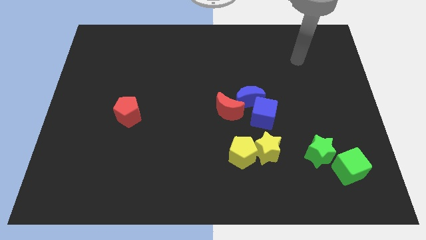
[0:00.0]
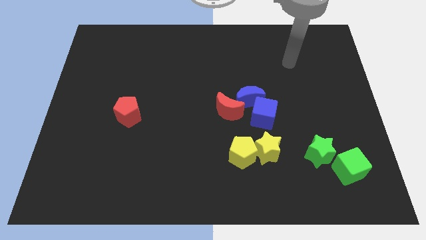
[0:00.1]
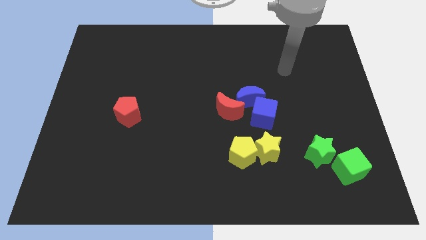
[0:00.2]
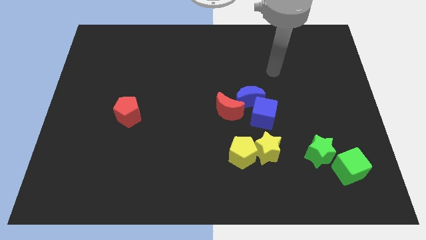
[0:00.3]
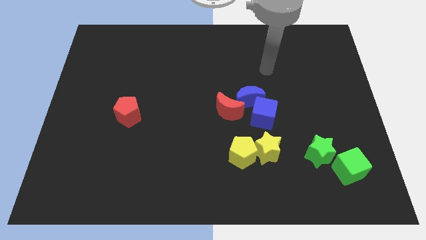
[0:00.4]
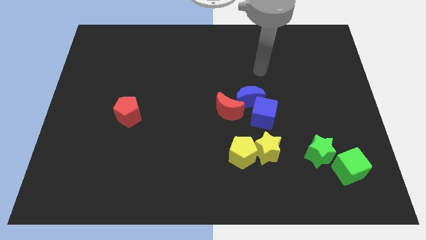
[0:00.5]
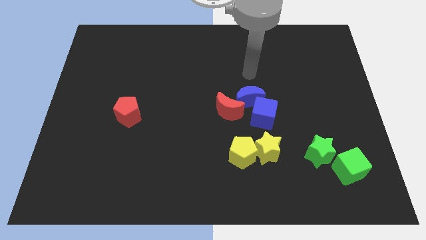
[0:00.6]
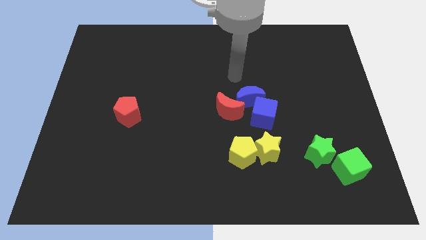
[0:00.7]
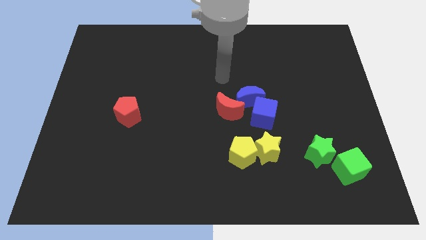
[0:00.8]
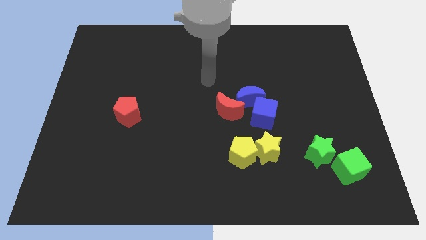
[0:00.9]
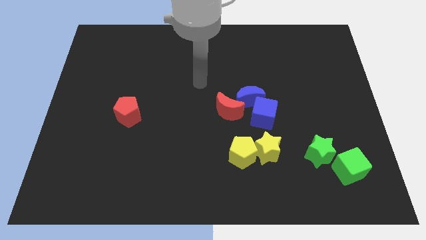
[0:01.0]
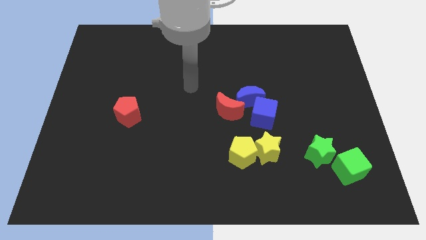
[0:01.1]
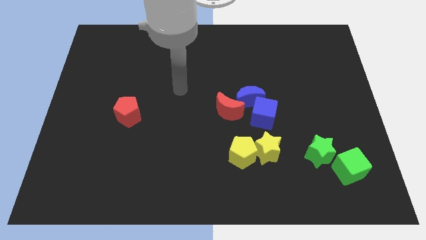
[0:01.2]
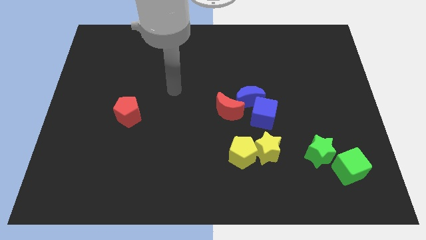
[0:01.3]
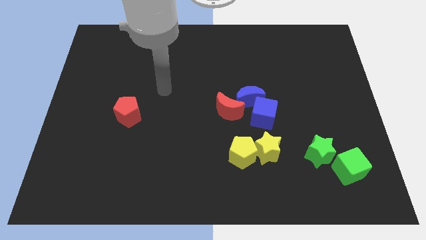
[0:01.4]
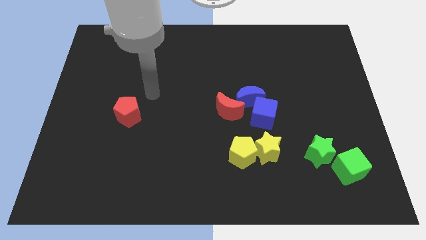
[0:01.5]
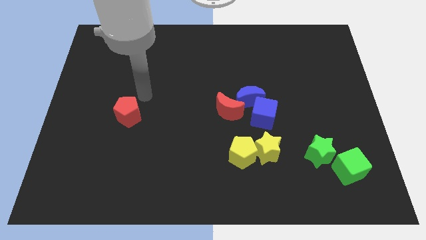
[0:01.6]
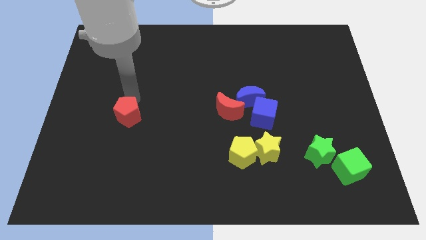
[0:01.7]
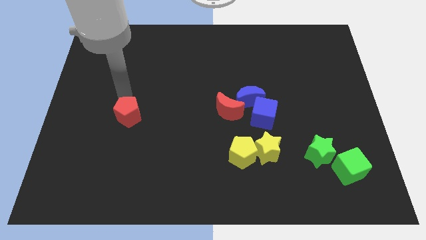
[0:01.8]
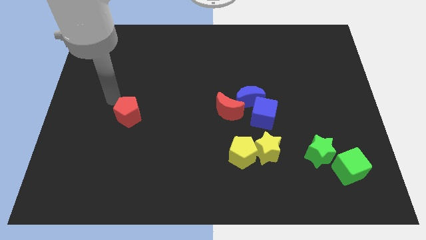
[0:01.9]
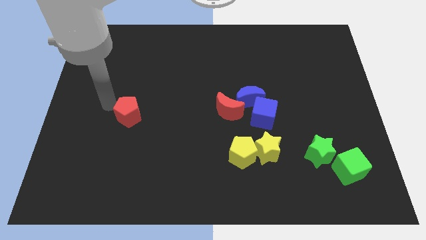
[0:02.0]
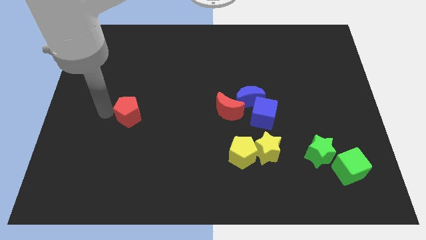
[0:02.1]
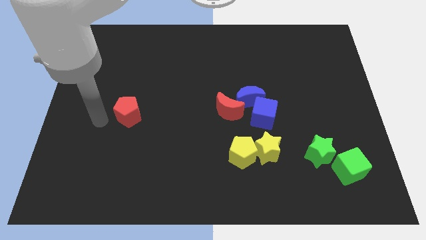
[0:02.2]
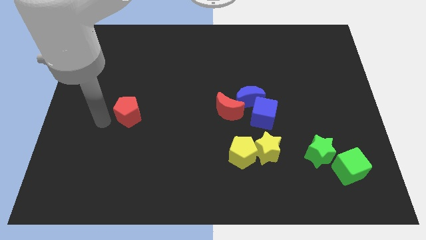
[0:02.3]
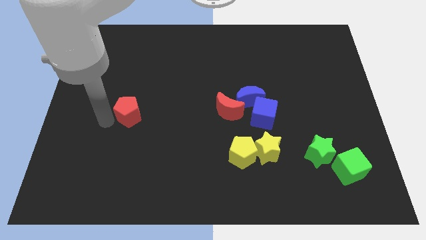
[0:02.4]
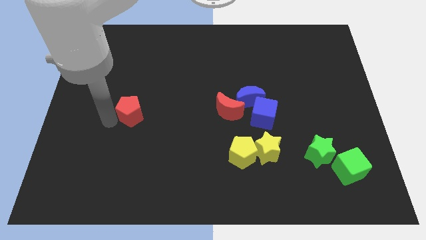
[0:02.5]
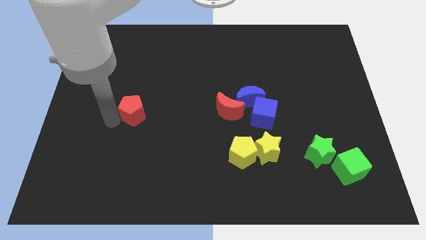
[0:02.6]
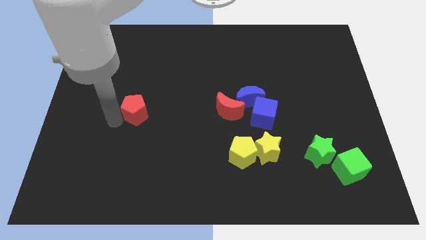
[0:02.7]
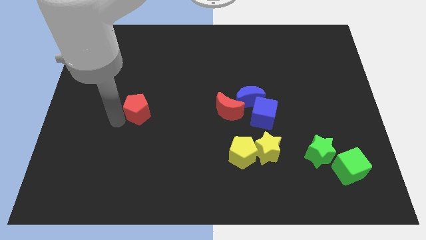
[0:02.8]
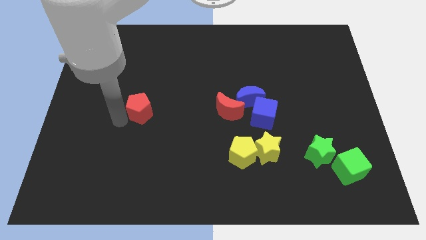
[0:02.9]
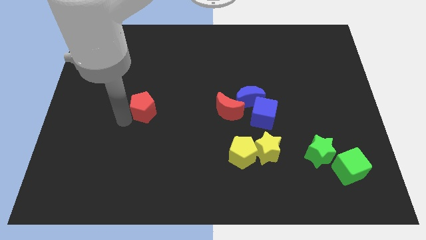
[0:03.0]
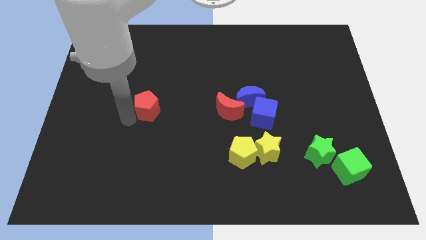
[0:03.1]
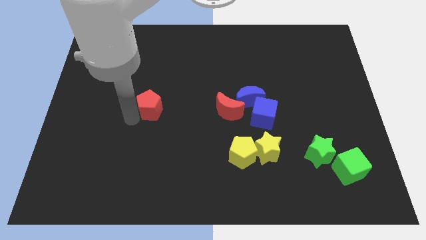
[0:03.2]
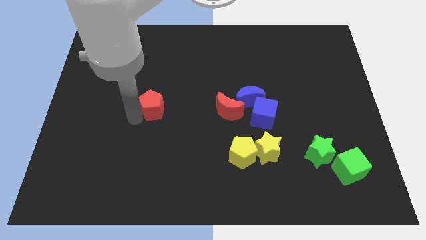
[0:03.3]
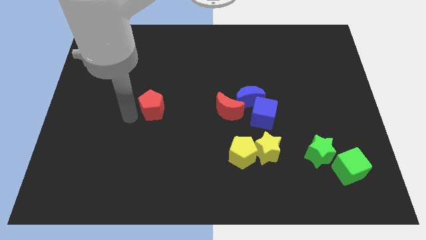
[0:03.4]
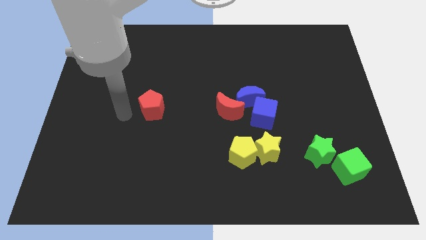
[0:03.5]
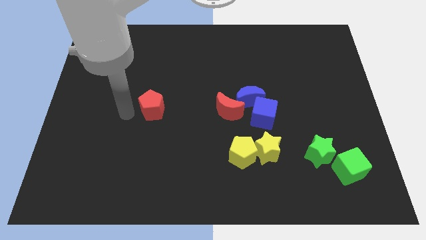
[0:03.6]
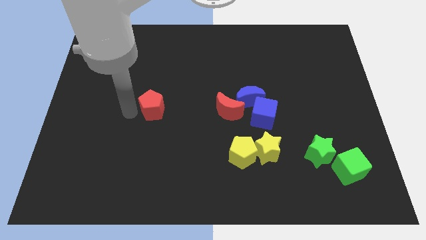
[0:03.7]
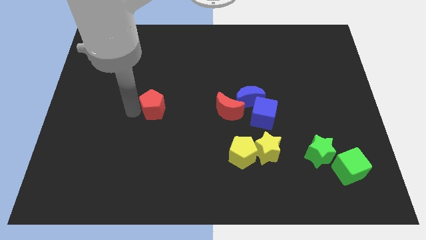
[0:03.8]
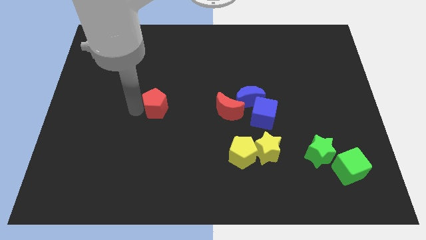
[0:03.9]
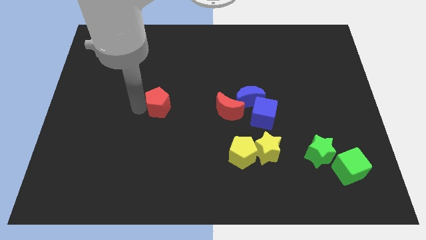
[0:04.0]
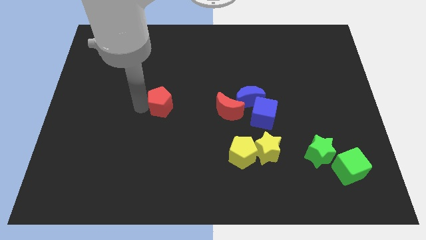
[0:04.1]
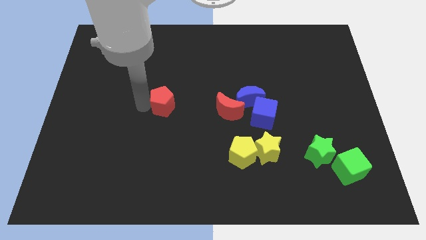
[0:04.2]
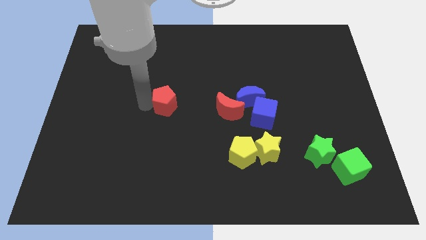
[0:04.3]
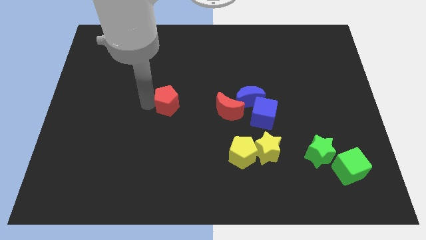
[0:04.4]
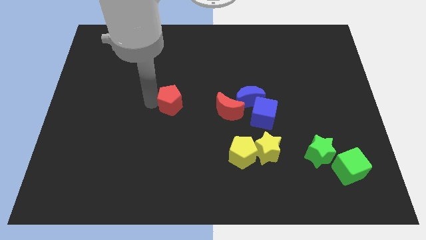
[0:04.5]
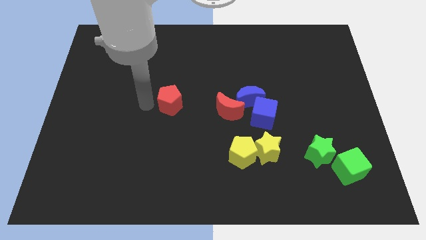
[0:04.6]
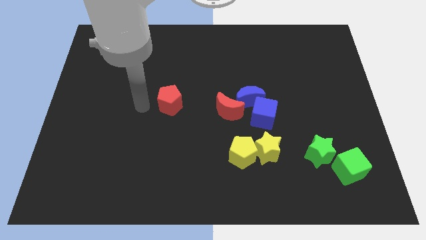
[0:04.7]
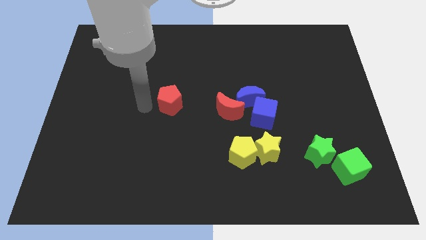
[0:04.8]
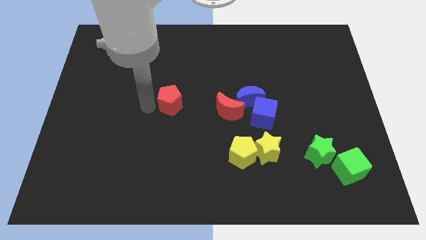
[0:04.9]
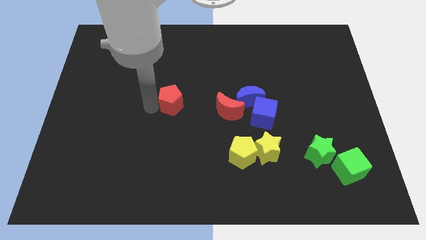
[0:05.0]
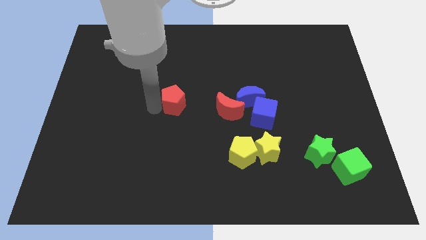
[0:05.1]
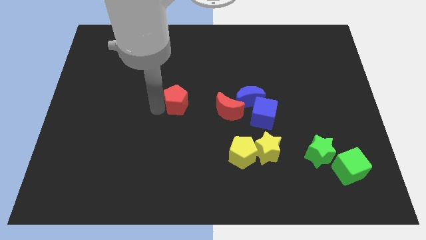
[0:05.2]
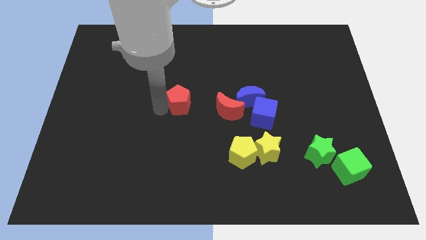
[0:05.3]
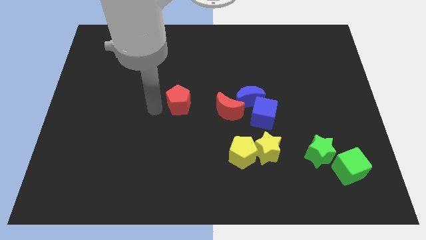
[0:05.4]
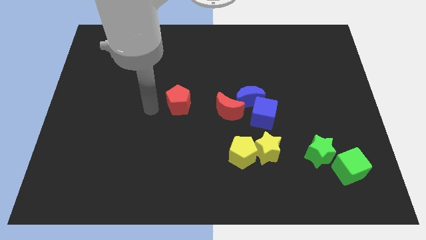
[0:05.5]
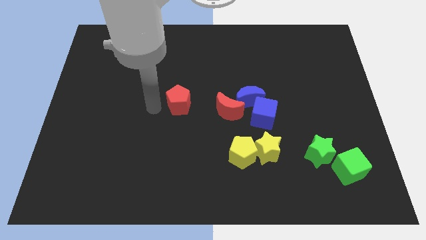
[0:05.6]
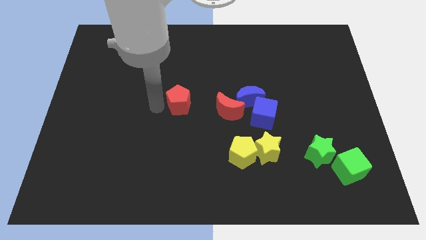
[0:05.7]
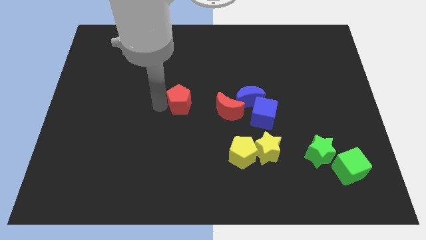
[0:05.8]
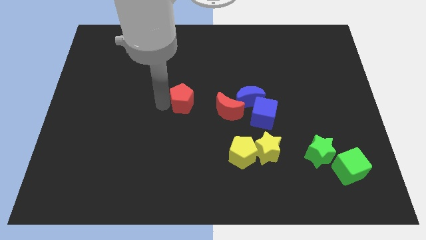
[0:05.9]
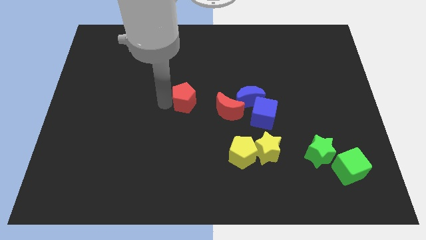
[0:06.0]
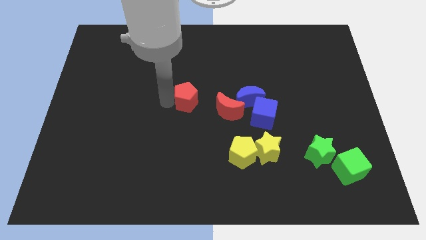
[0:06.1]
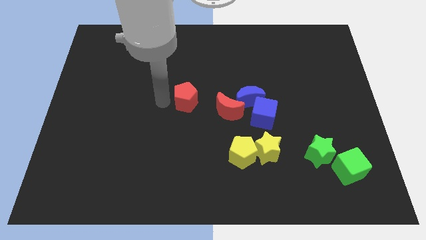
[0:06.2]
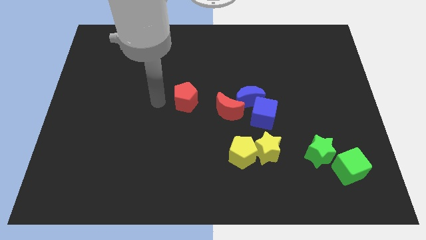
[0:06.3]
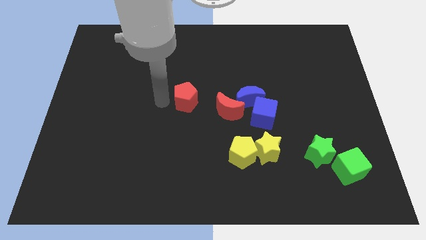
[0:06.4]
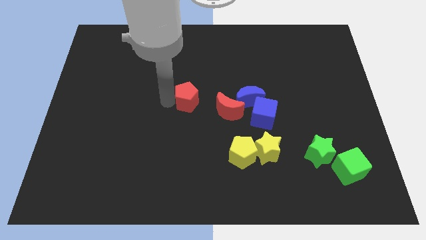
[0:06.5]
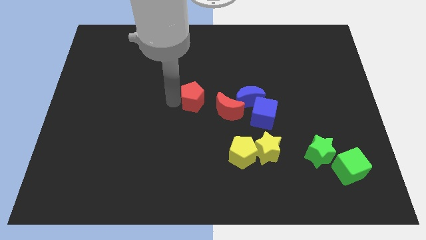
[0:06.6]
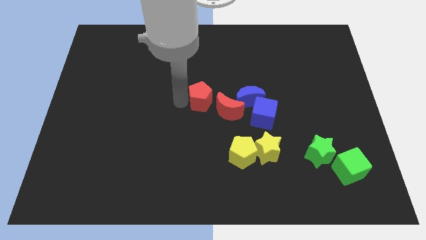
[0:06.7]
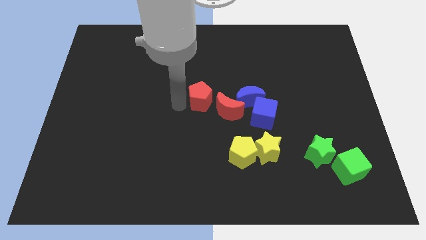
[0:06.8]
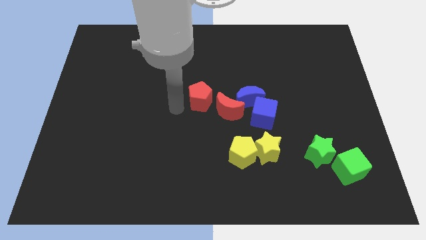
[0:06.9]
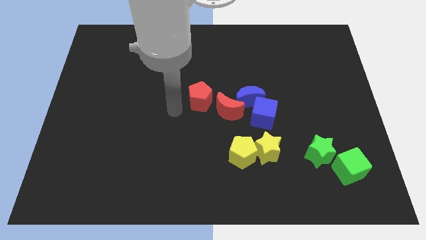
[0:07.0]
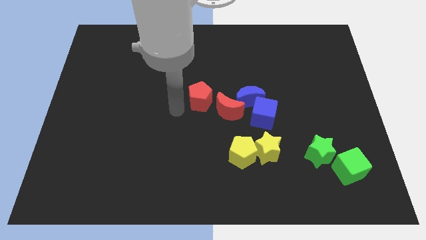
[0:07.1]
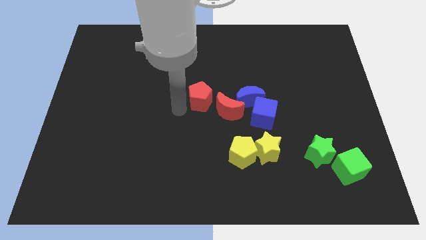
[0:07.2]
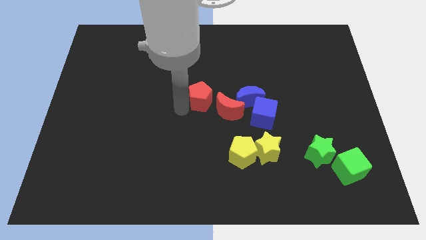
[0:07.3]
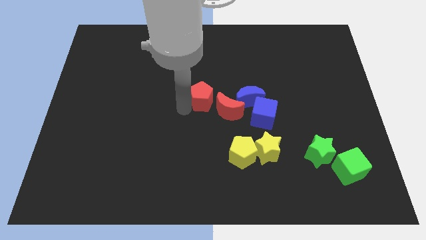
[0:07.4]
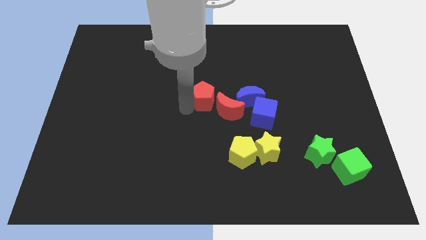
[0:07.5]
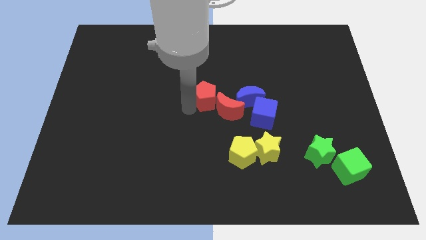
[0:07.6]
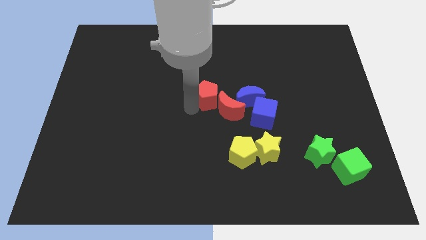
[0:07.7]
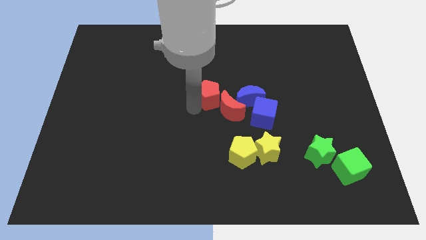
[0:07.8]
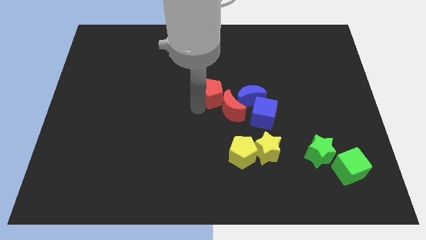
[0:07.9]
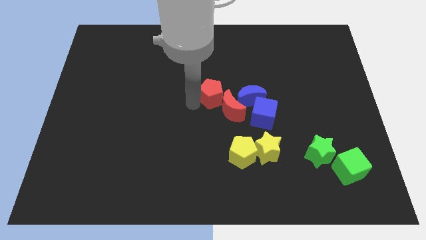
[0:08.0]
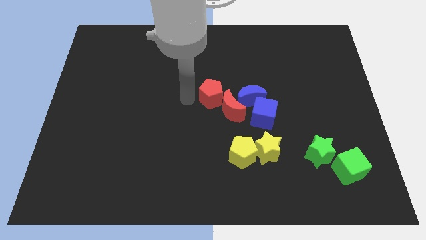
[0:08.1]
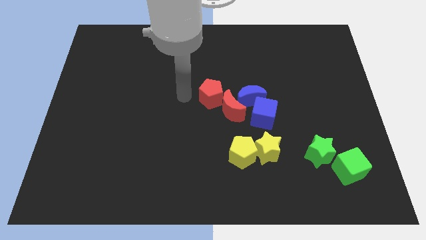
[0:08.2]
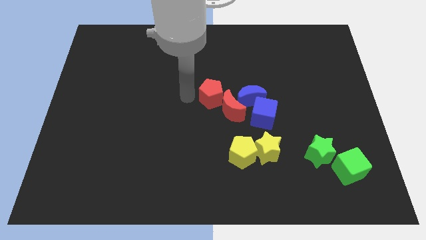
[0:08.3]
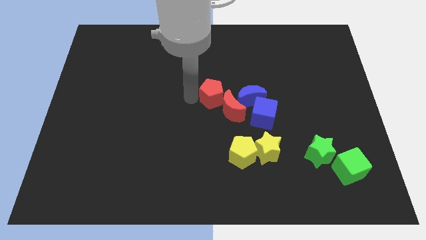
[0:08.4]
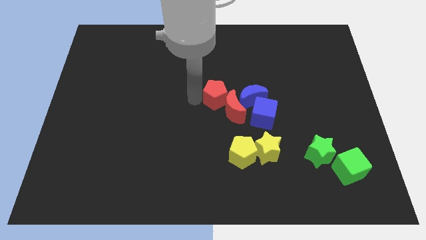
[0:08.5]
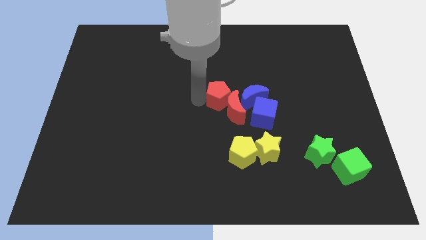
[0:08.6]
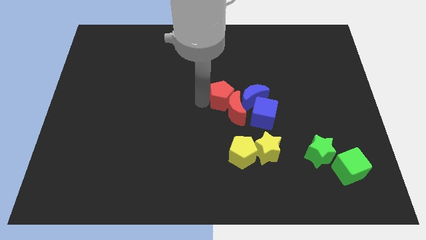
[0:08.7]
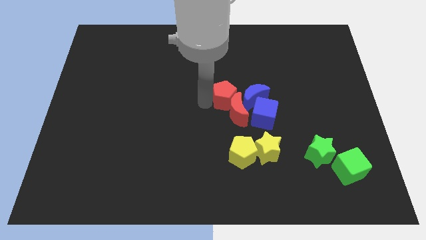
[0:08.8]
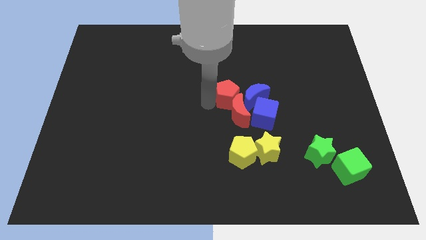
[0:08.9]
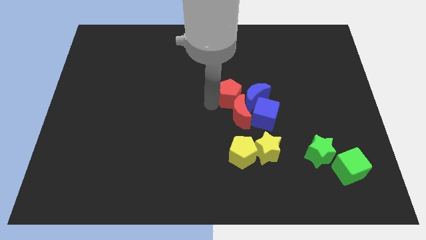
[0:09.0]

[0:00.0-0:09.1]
push the red pentagon next to the blue moon
